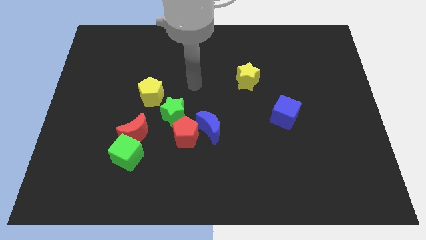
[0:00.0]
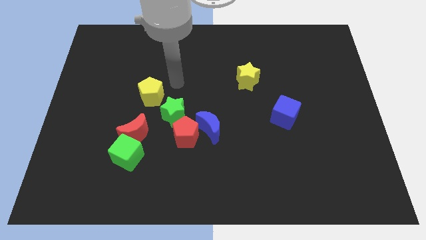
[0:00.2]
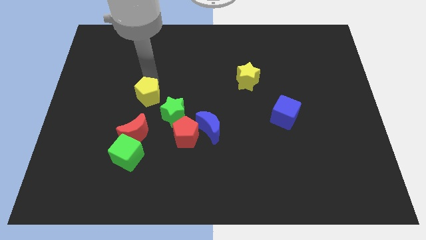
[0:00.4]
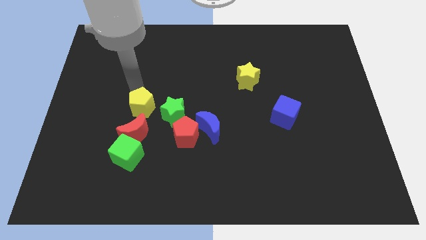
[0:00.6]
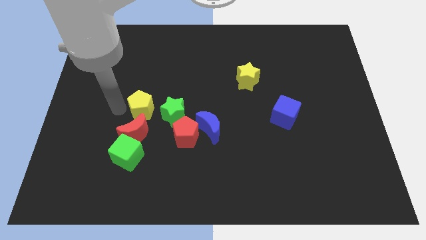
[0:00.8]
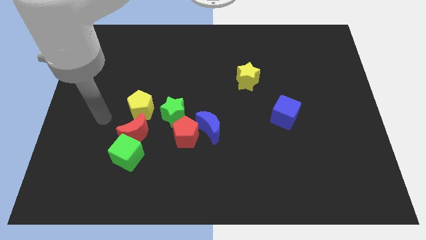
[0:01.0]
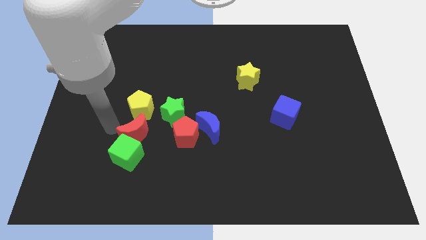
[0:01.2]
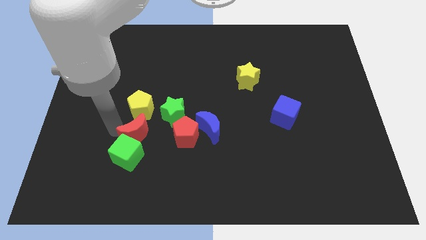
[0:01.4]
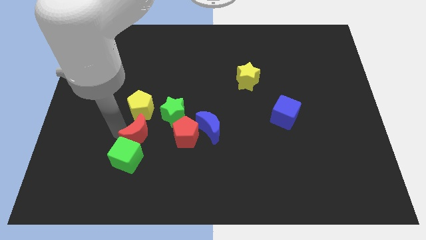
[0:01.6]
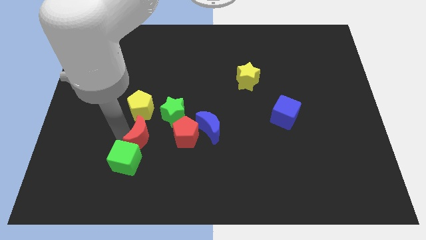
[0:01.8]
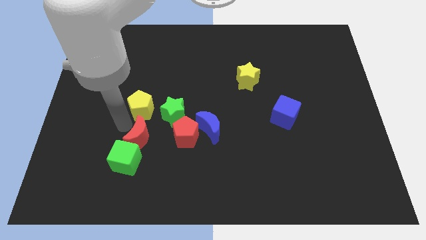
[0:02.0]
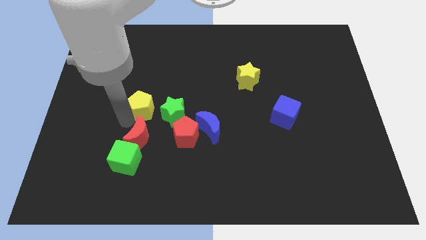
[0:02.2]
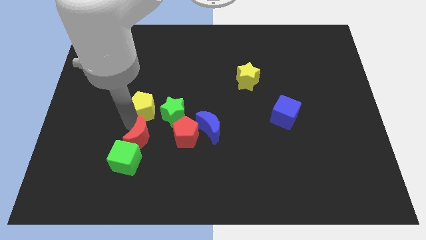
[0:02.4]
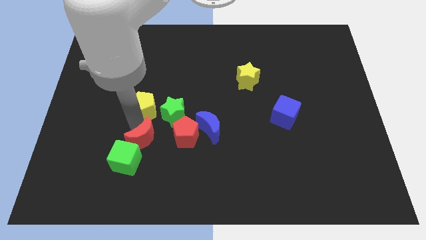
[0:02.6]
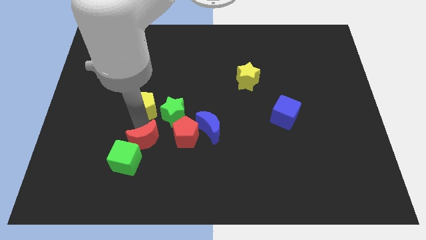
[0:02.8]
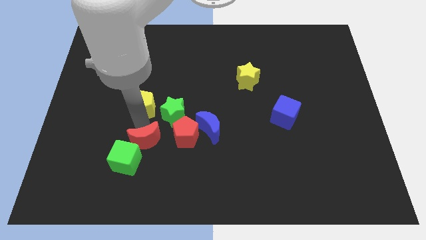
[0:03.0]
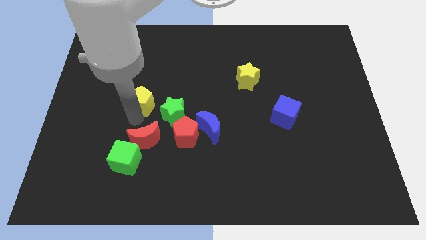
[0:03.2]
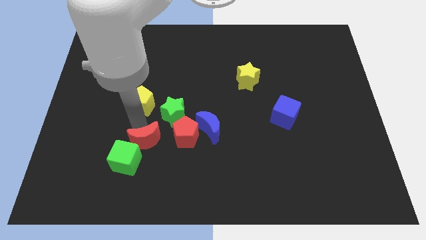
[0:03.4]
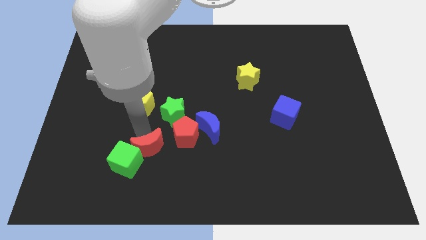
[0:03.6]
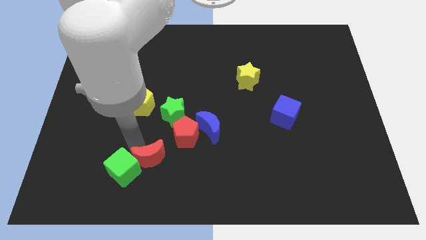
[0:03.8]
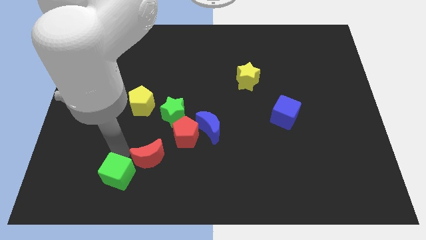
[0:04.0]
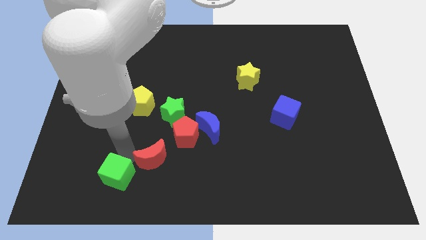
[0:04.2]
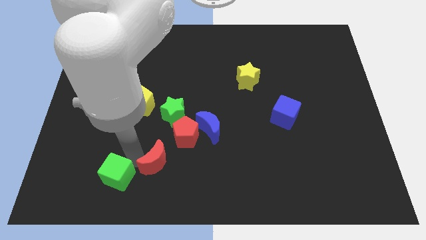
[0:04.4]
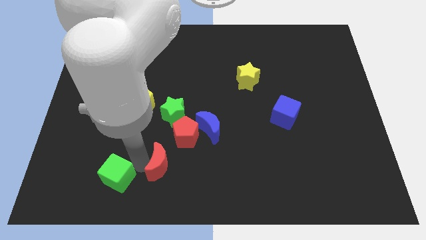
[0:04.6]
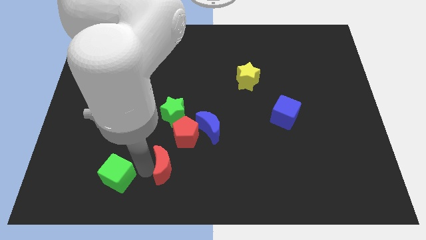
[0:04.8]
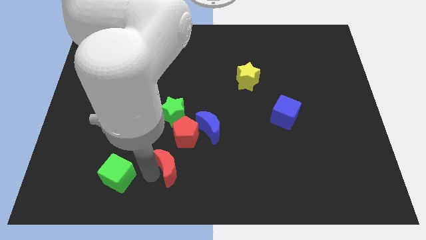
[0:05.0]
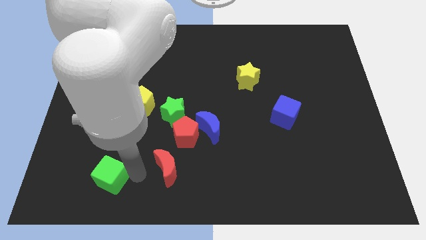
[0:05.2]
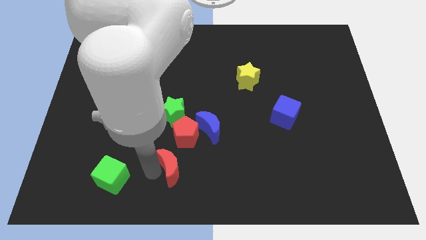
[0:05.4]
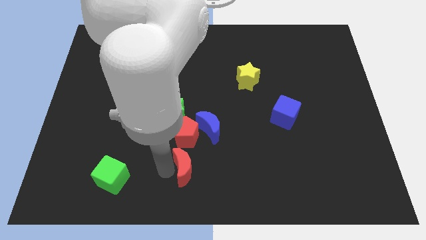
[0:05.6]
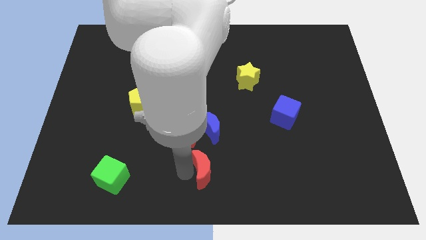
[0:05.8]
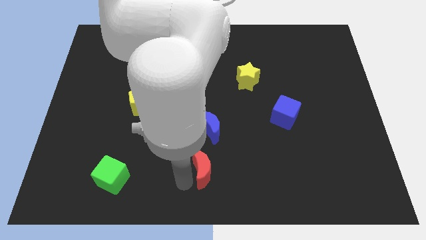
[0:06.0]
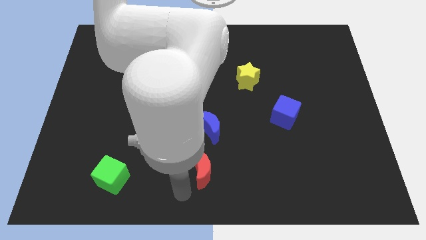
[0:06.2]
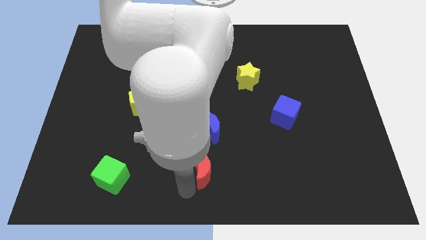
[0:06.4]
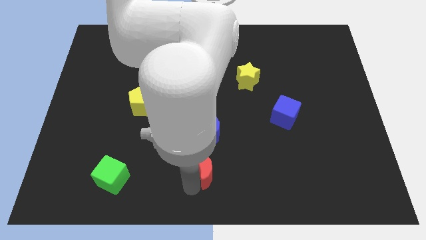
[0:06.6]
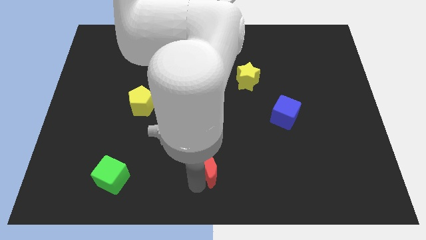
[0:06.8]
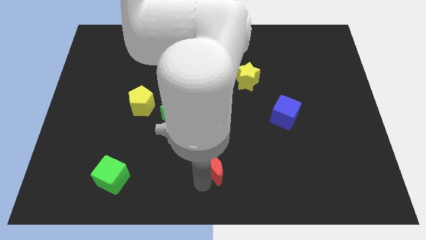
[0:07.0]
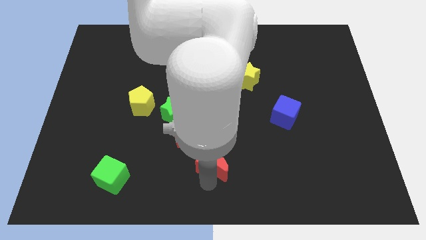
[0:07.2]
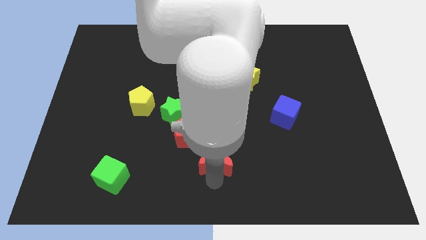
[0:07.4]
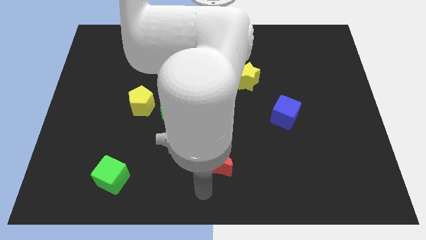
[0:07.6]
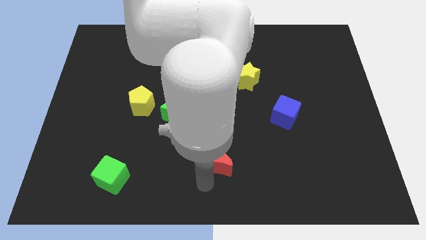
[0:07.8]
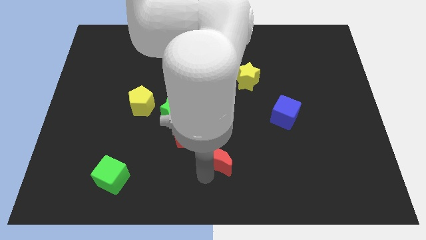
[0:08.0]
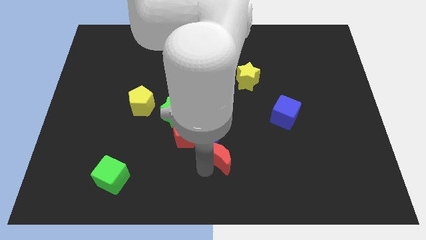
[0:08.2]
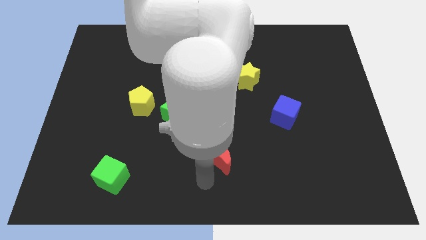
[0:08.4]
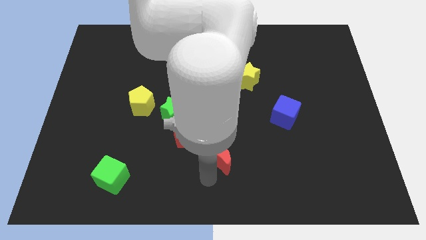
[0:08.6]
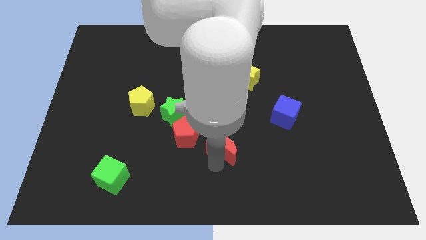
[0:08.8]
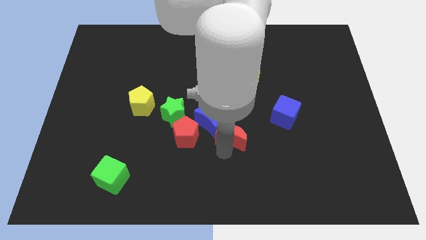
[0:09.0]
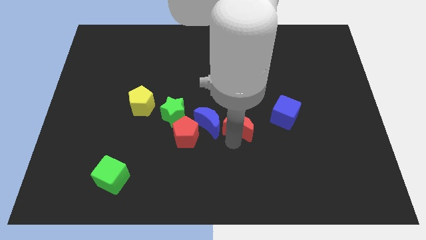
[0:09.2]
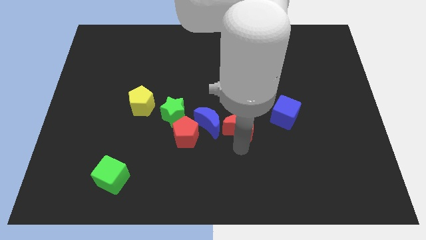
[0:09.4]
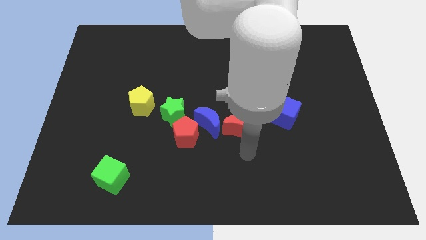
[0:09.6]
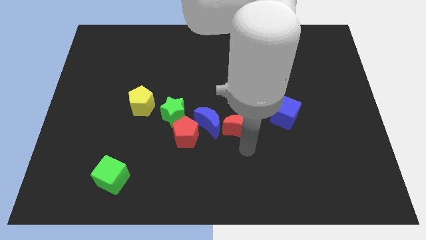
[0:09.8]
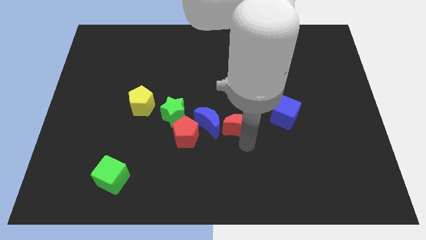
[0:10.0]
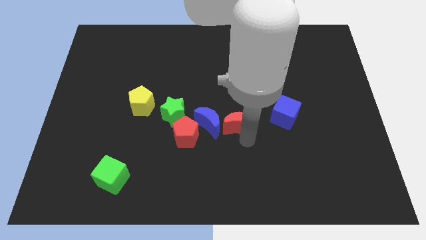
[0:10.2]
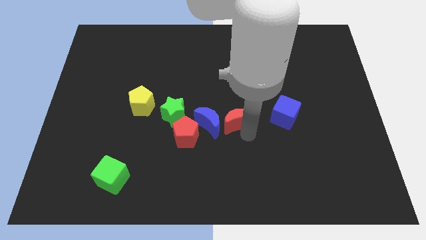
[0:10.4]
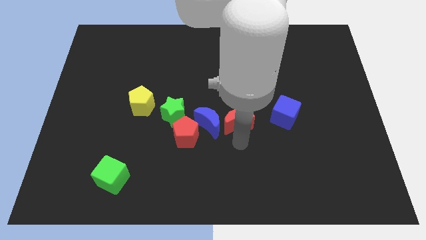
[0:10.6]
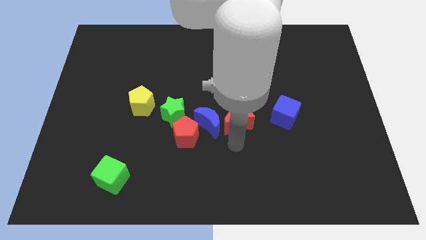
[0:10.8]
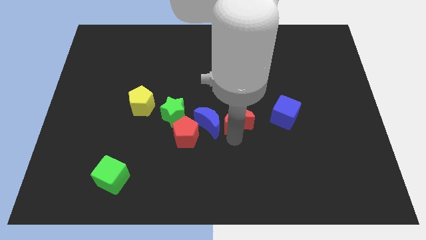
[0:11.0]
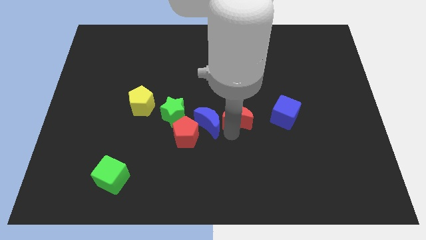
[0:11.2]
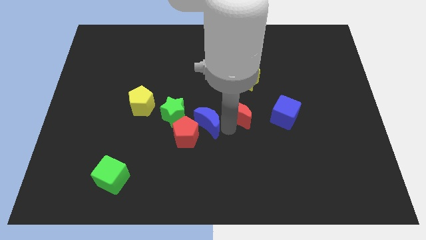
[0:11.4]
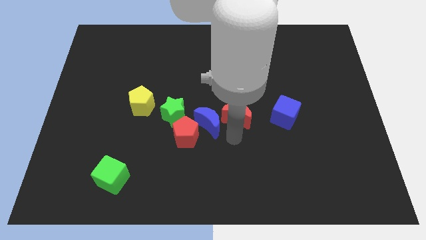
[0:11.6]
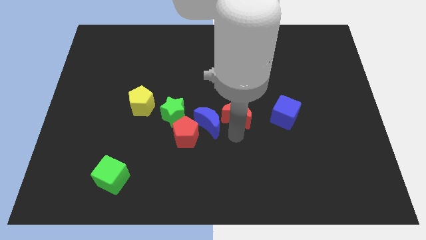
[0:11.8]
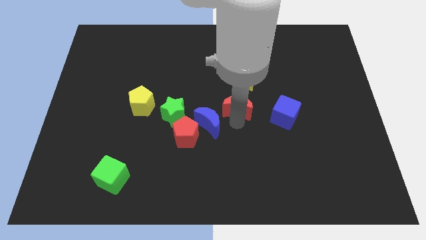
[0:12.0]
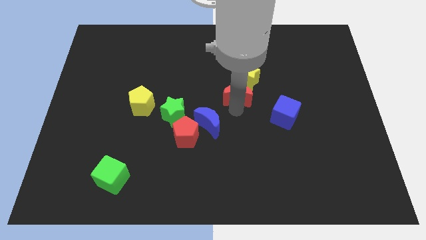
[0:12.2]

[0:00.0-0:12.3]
slide the red moon to the yellow star

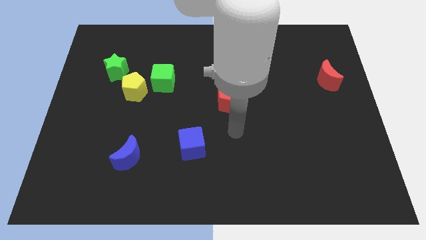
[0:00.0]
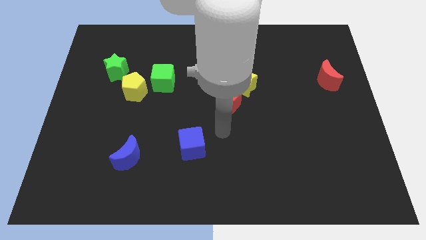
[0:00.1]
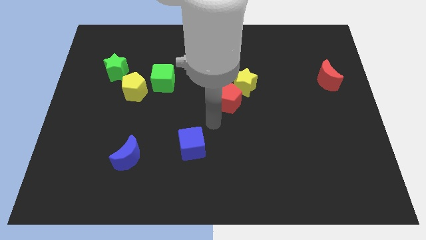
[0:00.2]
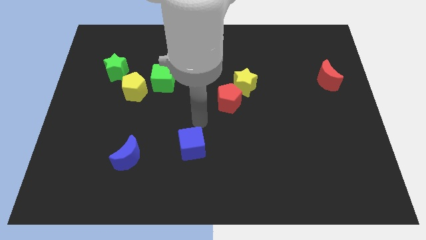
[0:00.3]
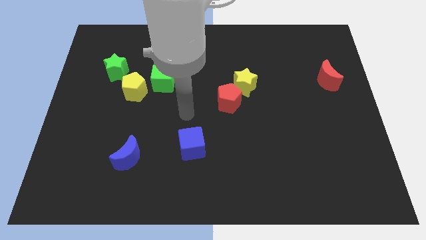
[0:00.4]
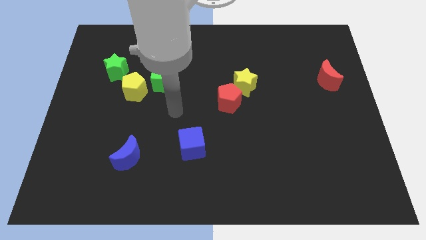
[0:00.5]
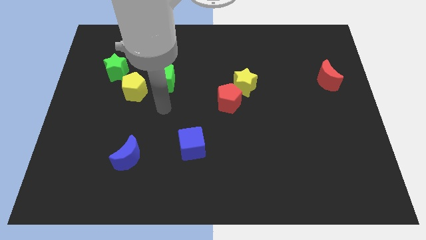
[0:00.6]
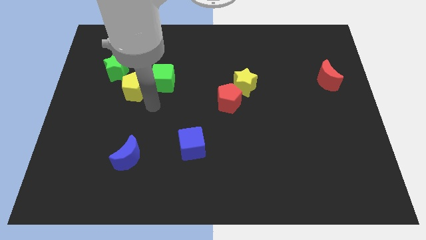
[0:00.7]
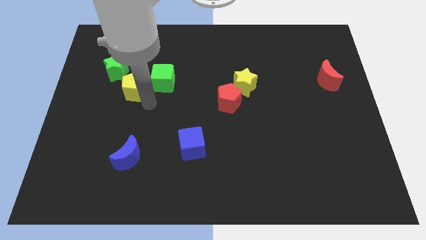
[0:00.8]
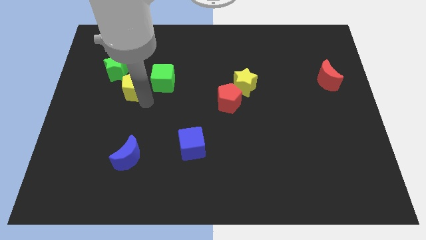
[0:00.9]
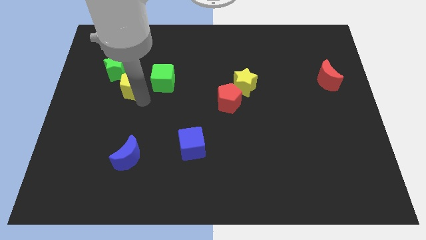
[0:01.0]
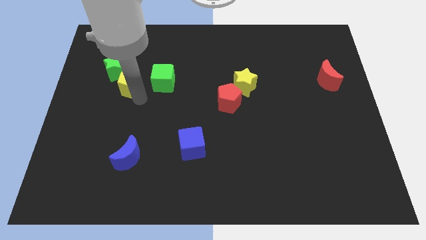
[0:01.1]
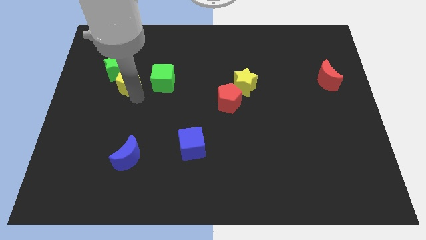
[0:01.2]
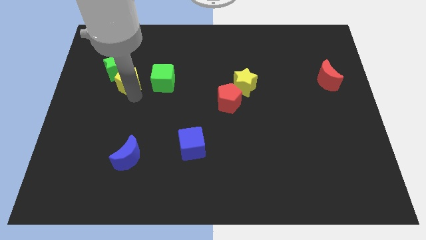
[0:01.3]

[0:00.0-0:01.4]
push the yellow pentagon to the green star
